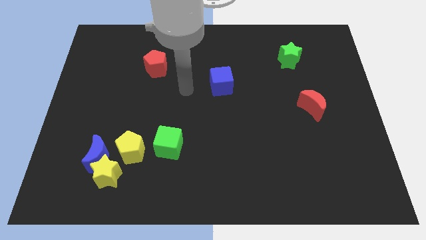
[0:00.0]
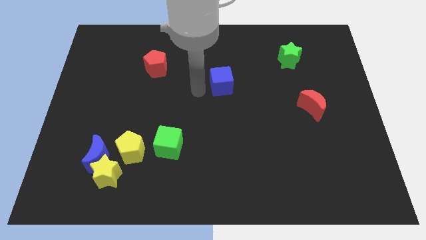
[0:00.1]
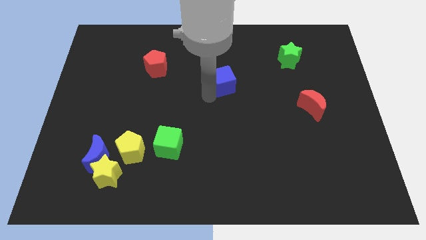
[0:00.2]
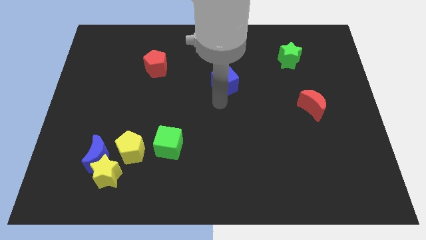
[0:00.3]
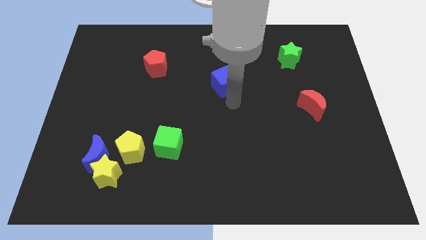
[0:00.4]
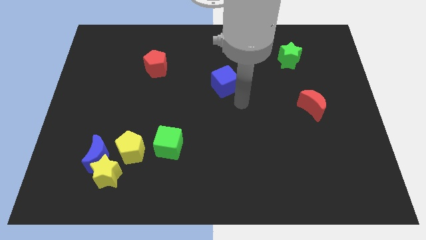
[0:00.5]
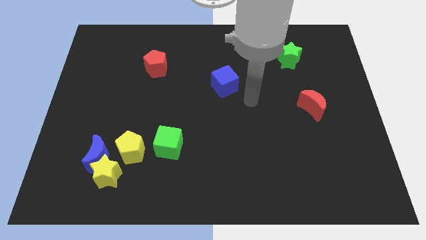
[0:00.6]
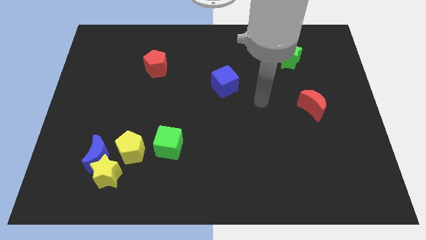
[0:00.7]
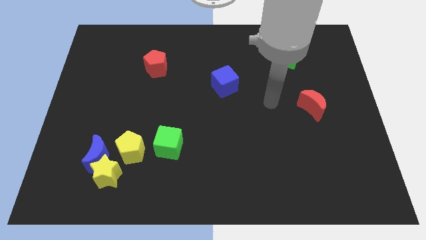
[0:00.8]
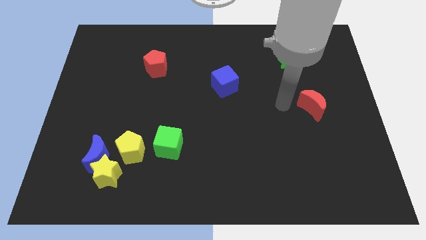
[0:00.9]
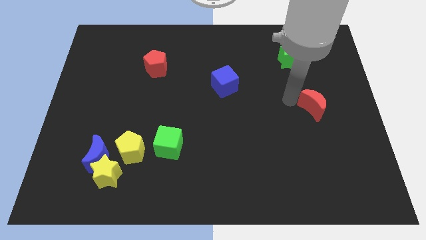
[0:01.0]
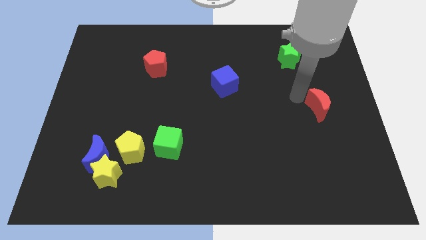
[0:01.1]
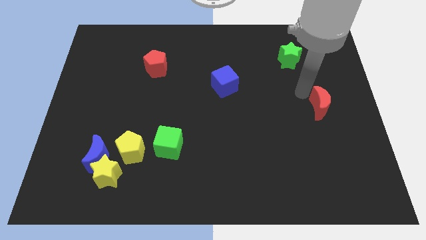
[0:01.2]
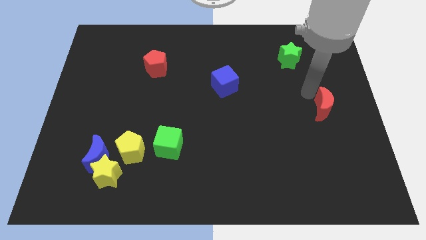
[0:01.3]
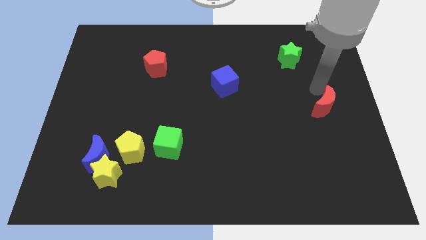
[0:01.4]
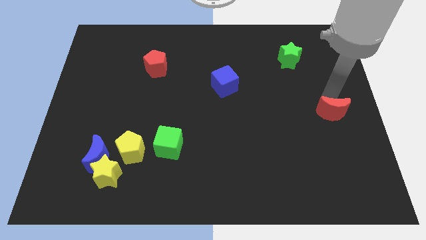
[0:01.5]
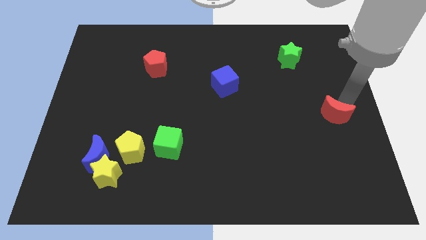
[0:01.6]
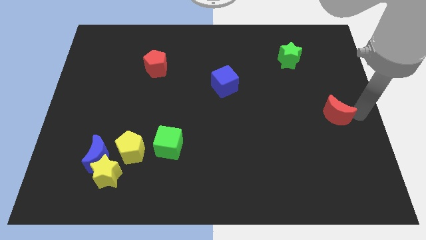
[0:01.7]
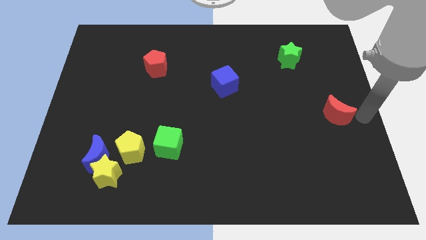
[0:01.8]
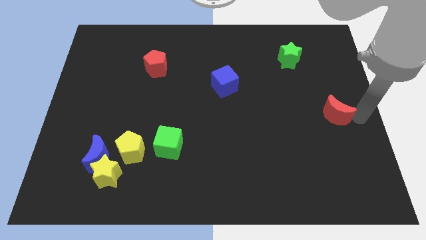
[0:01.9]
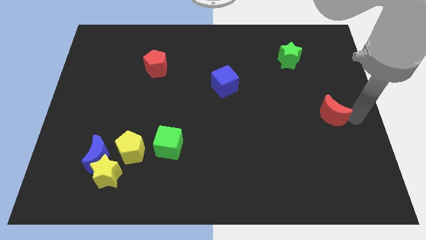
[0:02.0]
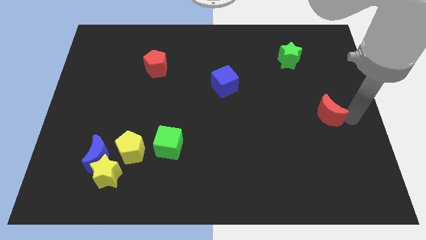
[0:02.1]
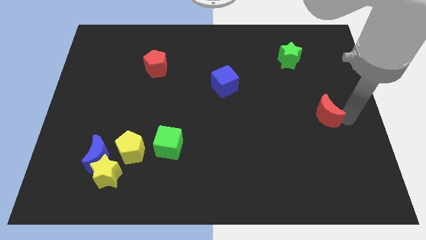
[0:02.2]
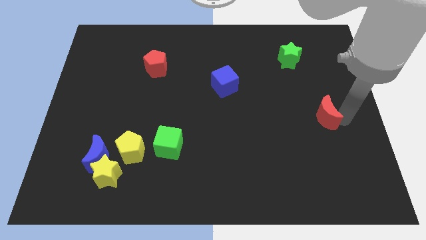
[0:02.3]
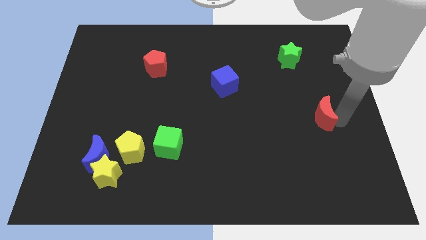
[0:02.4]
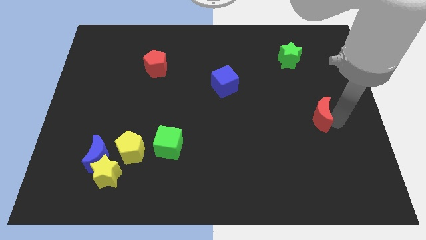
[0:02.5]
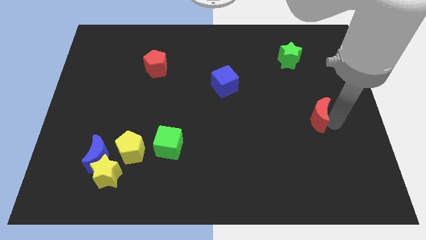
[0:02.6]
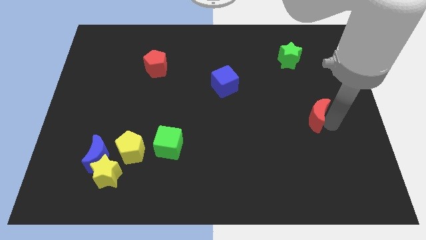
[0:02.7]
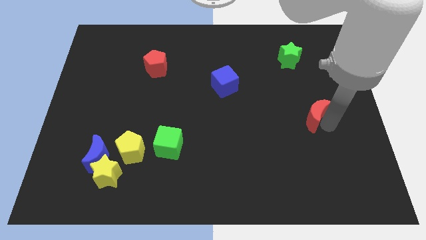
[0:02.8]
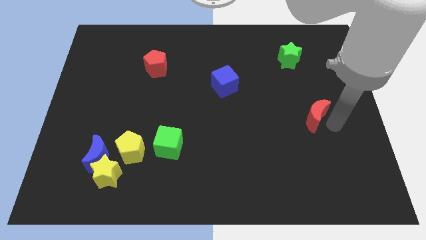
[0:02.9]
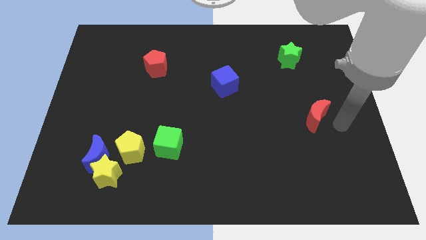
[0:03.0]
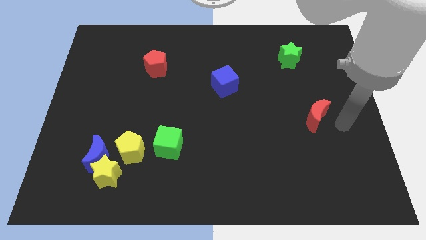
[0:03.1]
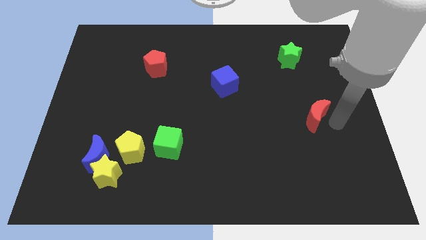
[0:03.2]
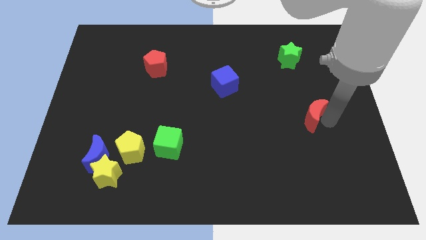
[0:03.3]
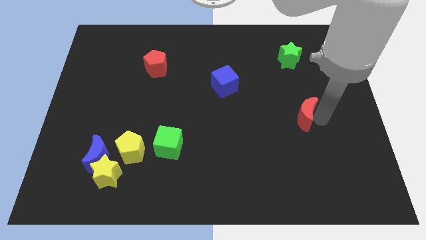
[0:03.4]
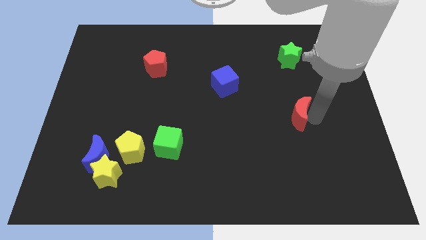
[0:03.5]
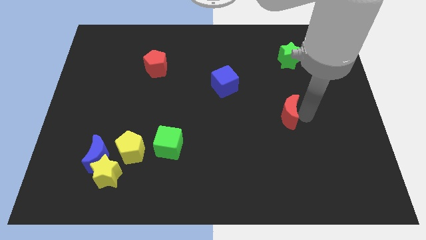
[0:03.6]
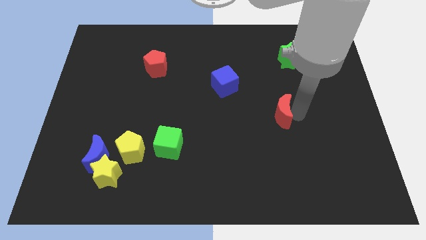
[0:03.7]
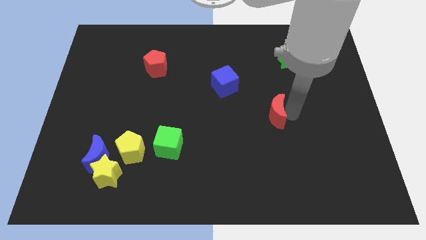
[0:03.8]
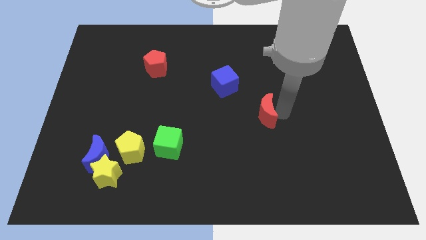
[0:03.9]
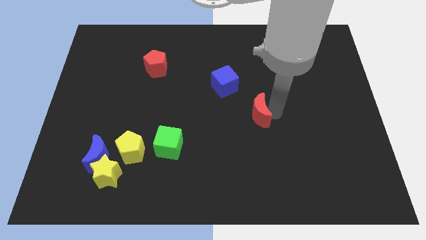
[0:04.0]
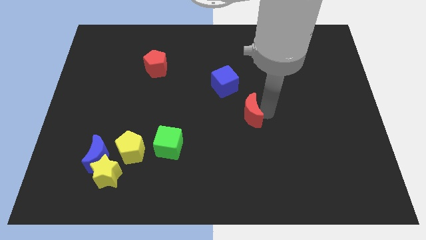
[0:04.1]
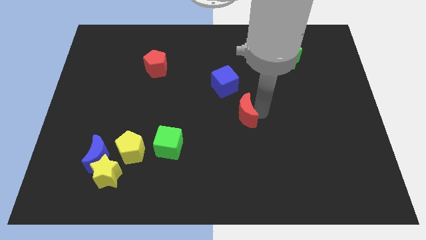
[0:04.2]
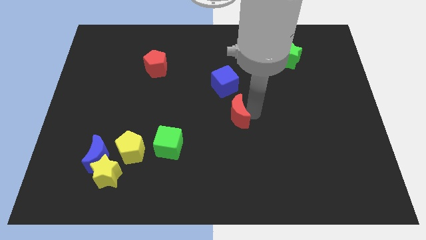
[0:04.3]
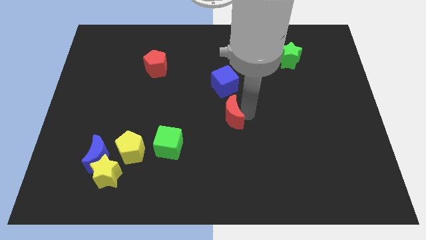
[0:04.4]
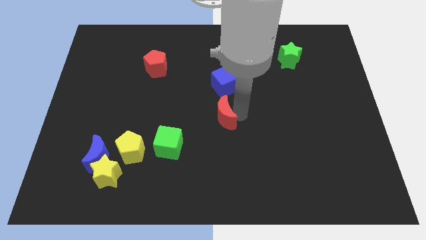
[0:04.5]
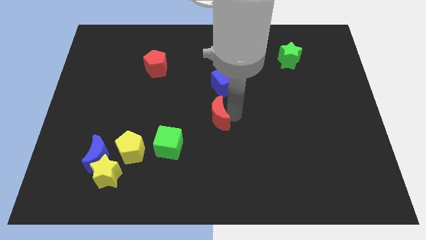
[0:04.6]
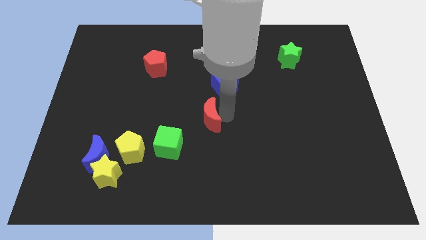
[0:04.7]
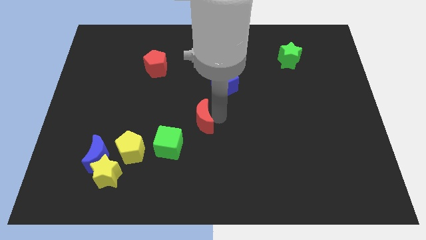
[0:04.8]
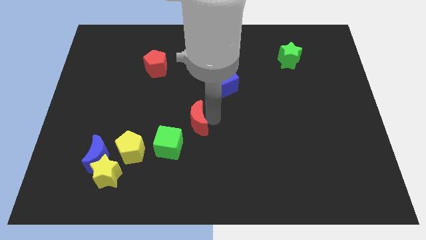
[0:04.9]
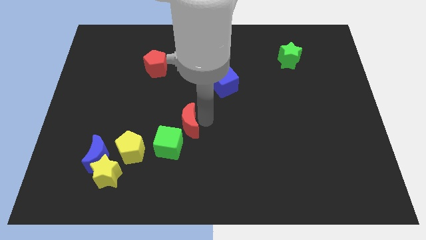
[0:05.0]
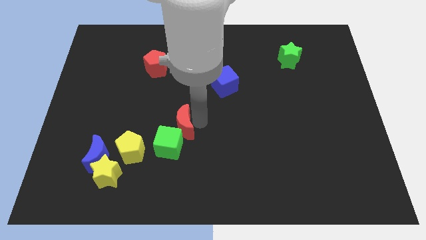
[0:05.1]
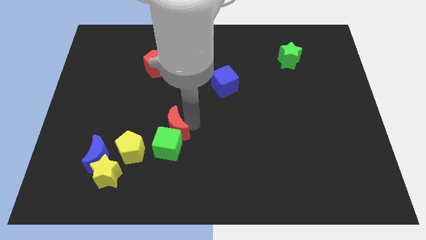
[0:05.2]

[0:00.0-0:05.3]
push the red moon to the top right side of the yellow pentagon

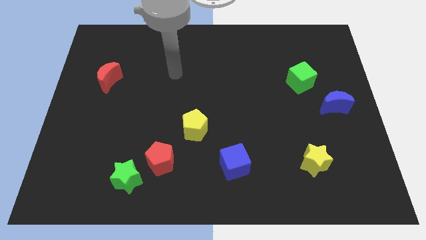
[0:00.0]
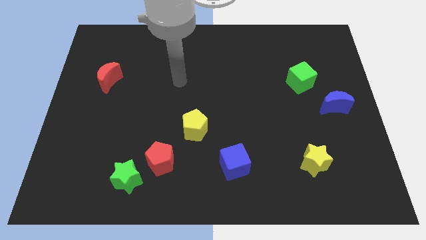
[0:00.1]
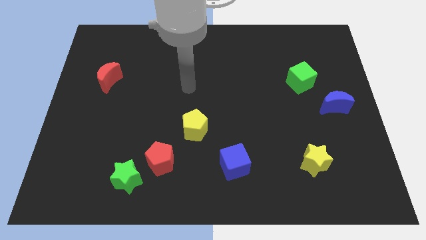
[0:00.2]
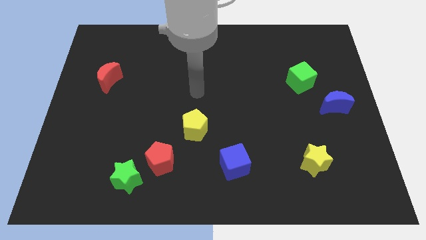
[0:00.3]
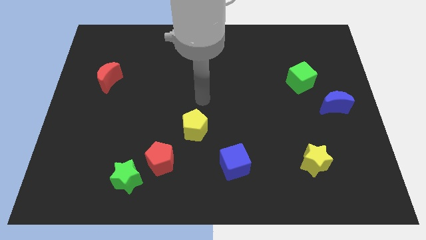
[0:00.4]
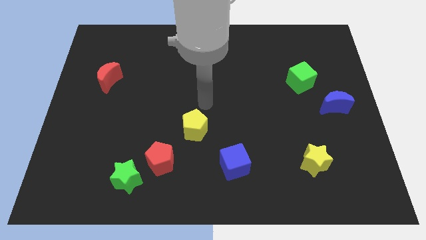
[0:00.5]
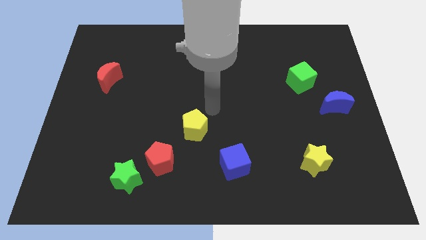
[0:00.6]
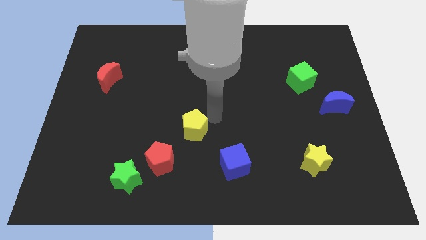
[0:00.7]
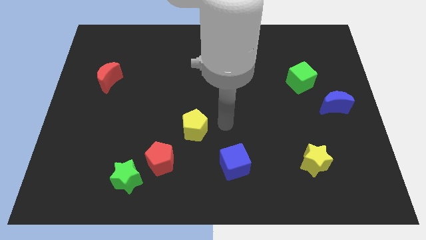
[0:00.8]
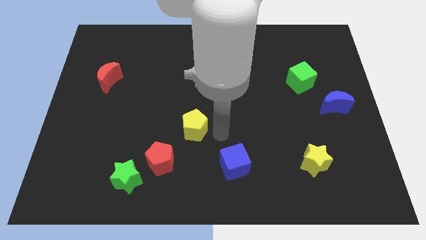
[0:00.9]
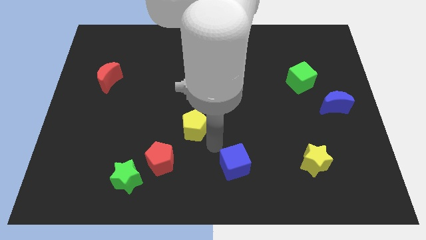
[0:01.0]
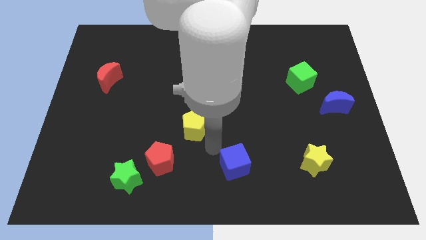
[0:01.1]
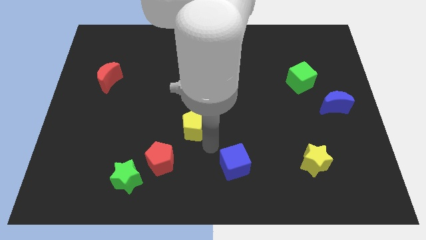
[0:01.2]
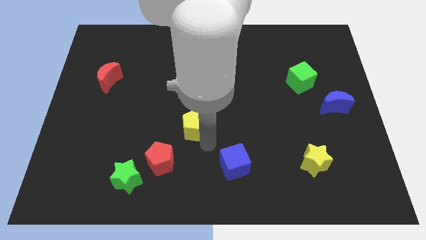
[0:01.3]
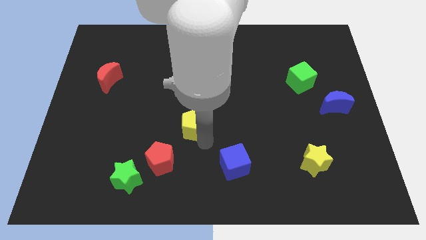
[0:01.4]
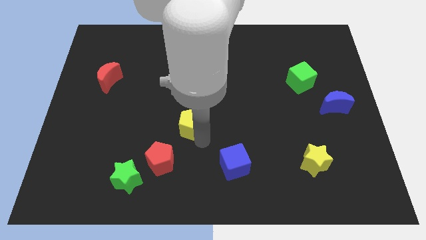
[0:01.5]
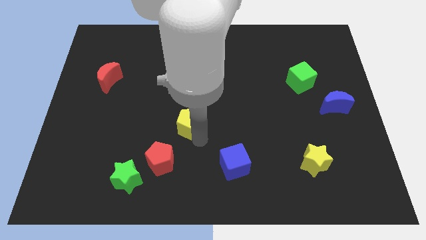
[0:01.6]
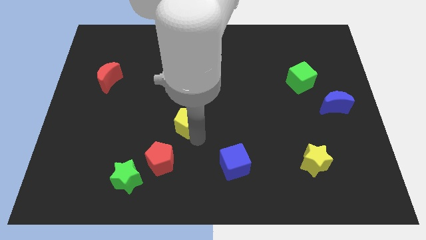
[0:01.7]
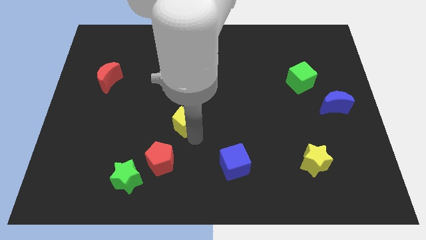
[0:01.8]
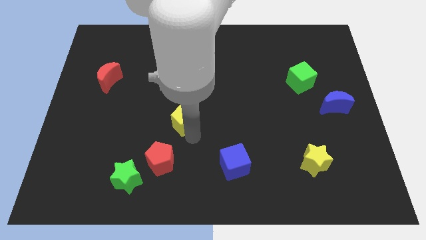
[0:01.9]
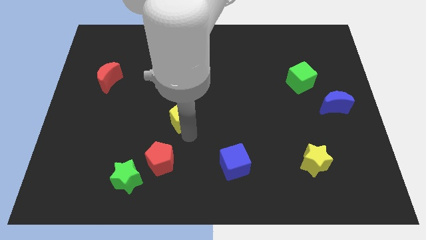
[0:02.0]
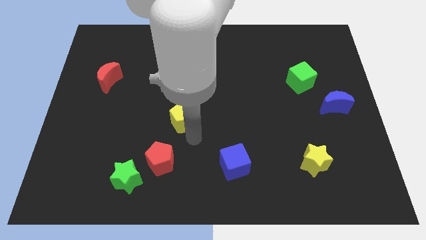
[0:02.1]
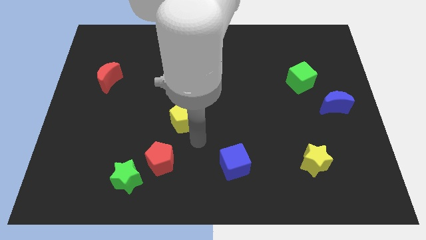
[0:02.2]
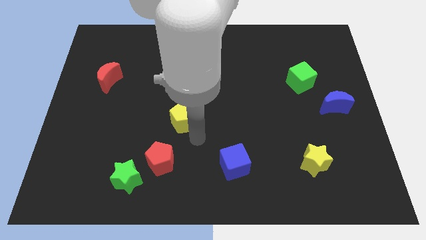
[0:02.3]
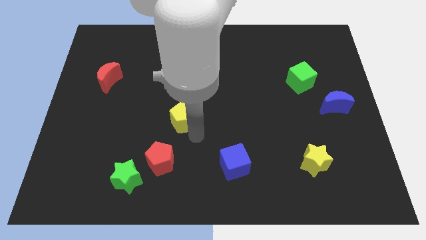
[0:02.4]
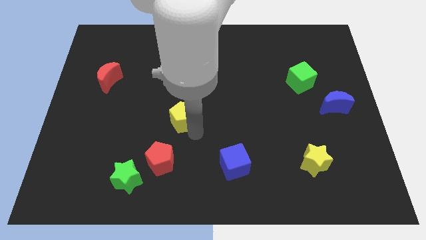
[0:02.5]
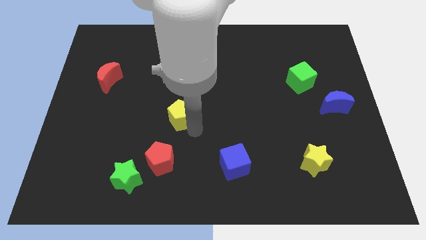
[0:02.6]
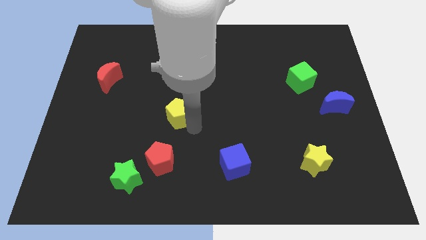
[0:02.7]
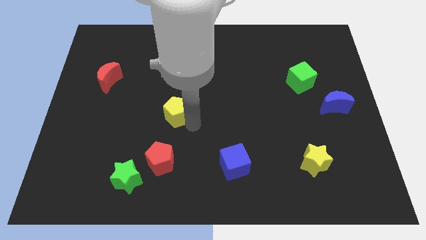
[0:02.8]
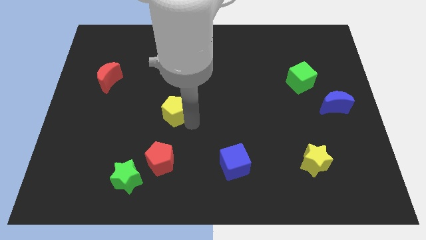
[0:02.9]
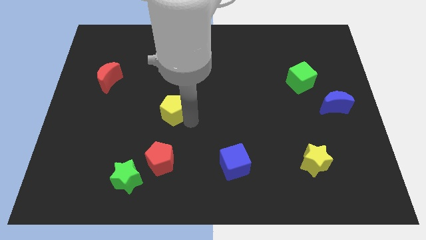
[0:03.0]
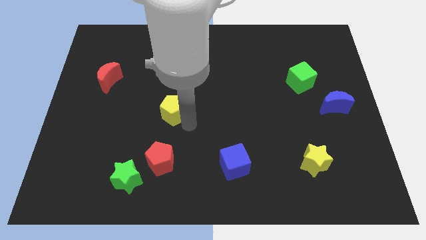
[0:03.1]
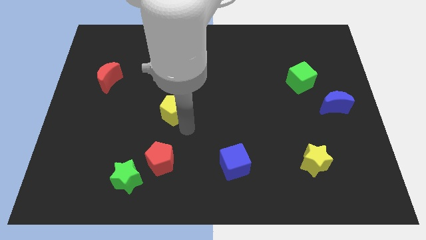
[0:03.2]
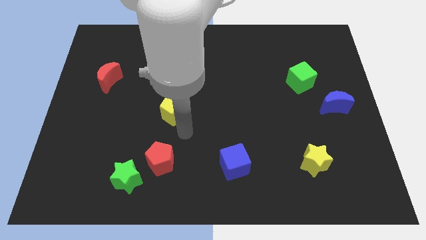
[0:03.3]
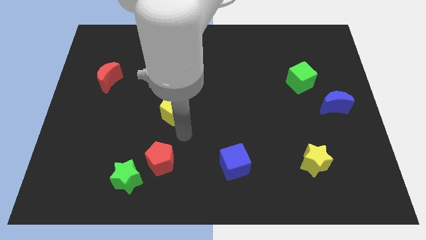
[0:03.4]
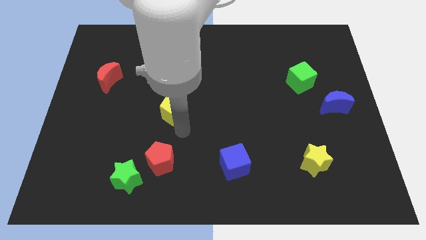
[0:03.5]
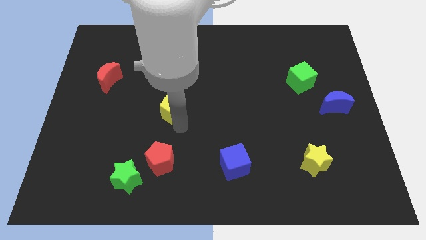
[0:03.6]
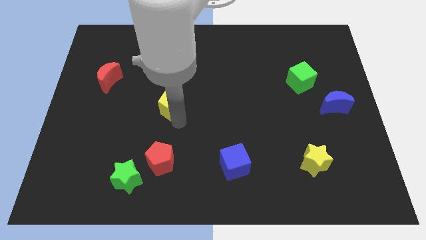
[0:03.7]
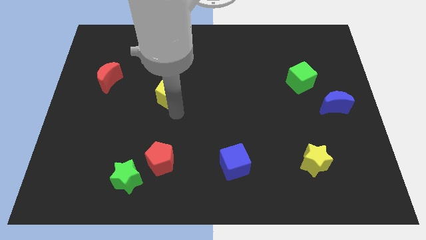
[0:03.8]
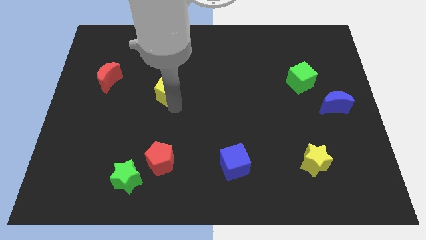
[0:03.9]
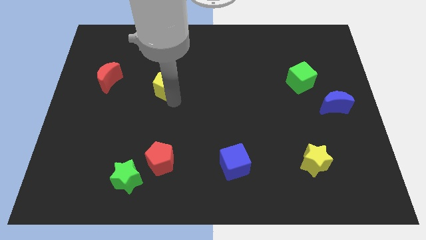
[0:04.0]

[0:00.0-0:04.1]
move the yellow pentagon to the right side of the red moon
